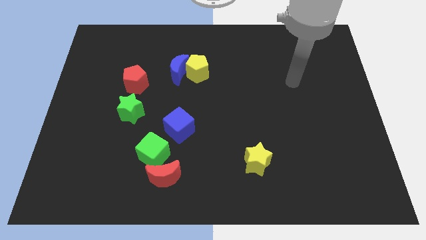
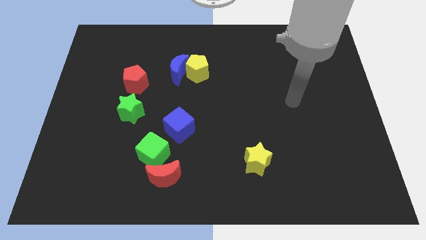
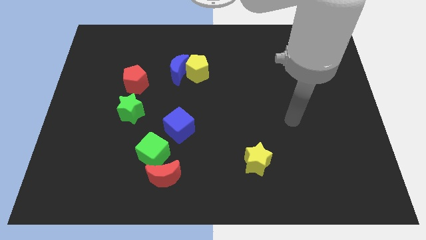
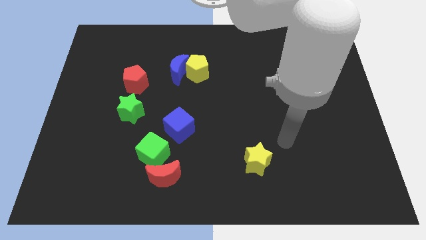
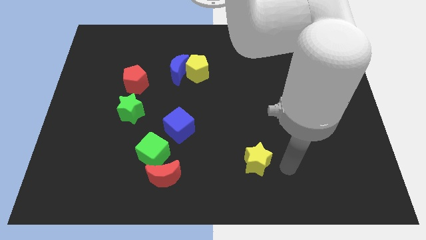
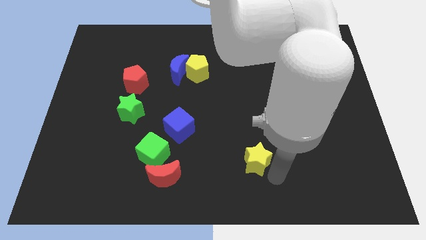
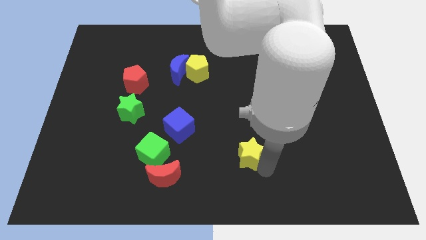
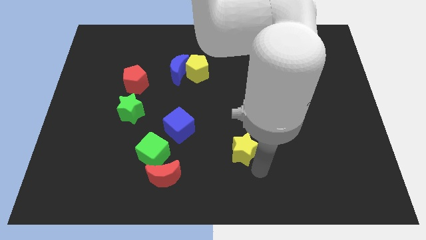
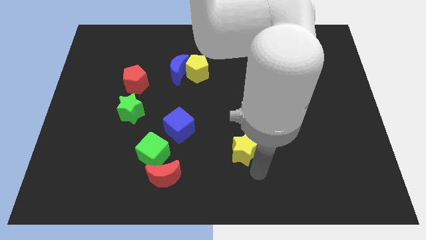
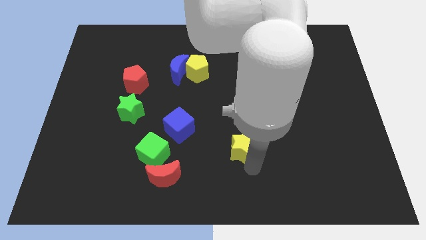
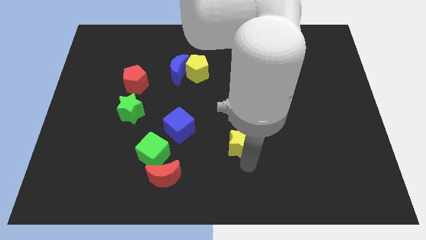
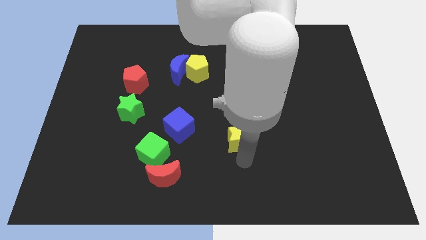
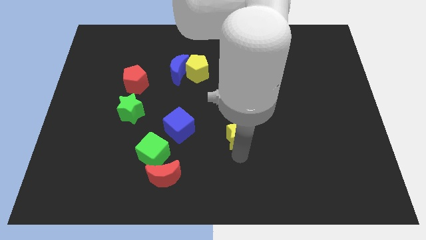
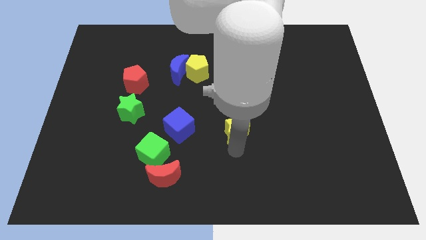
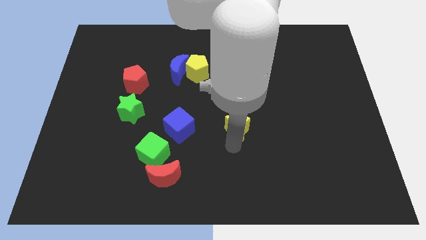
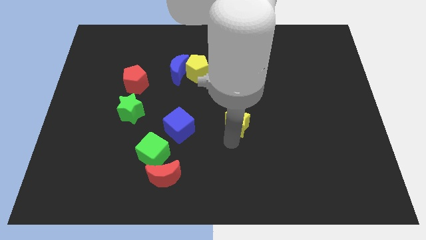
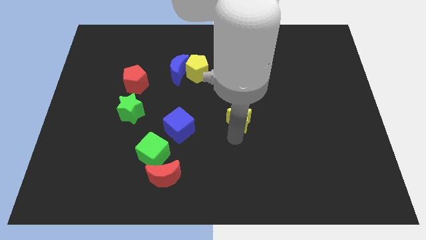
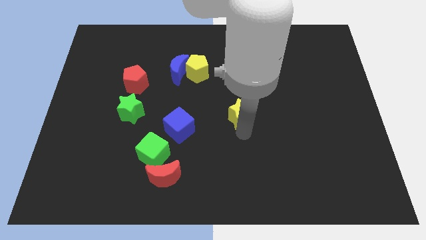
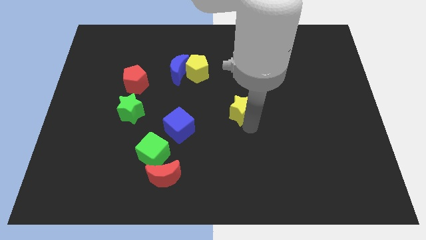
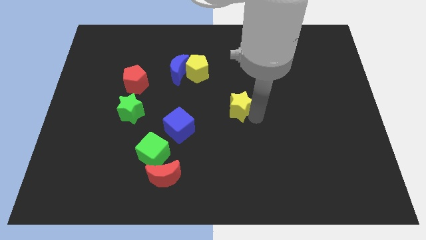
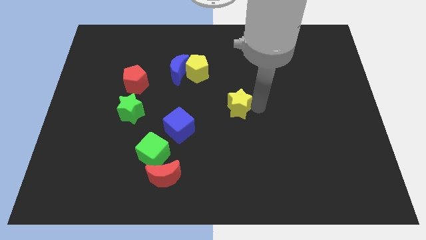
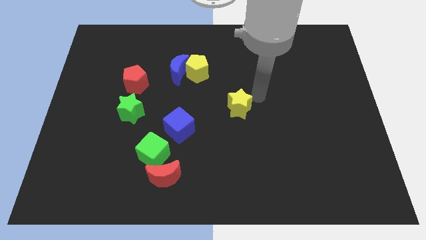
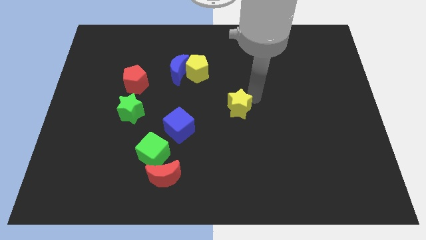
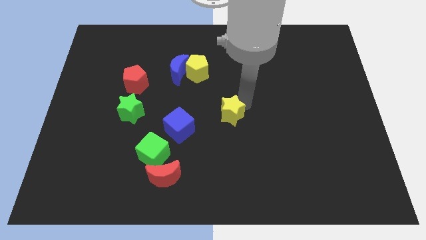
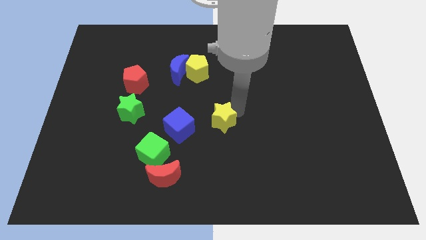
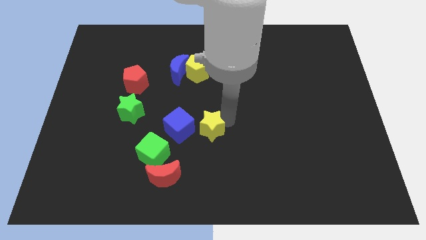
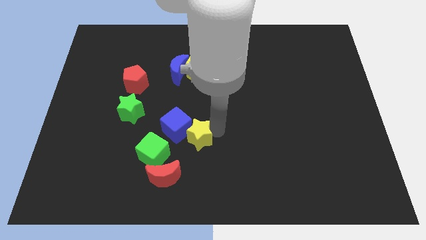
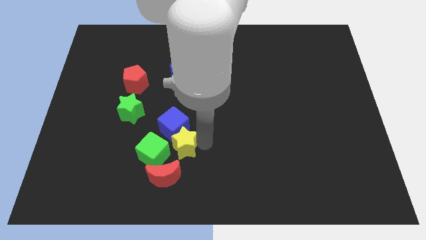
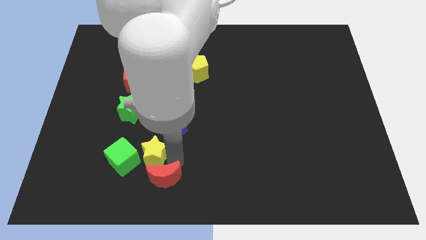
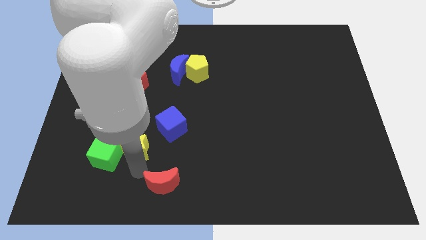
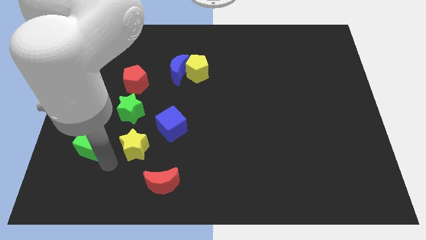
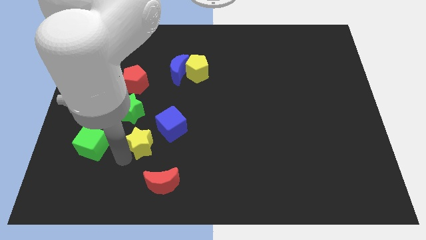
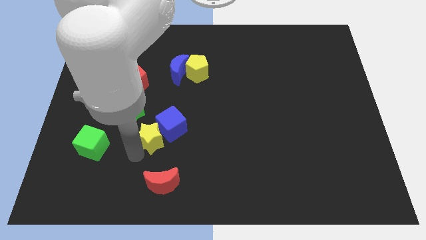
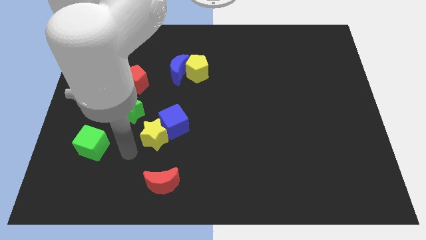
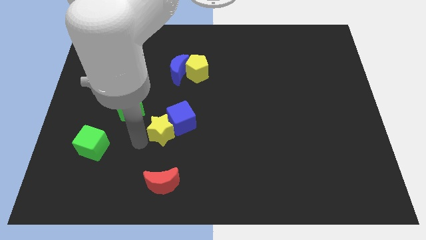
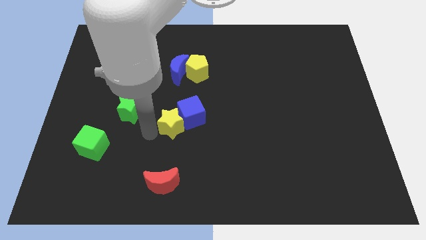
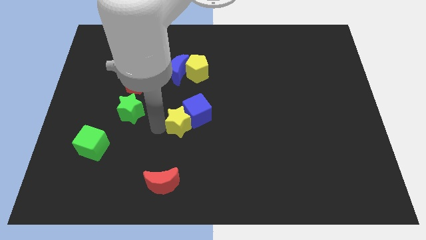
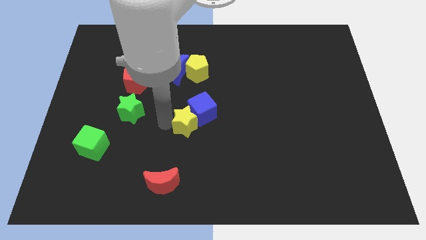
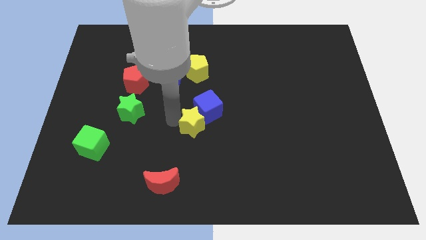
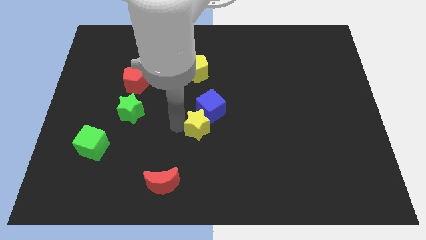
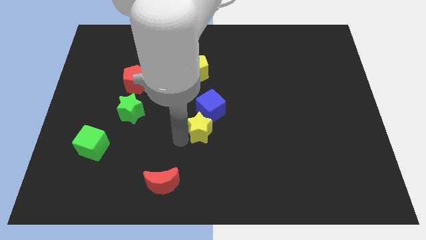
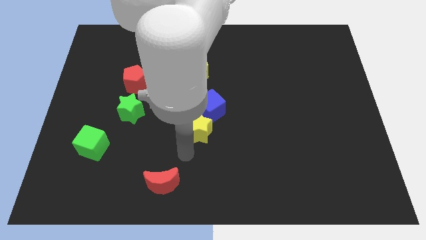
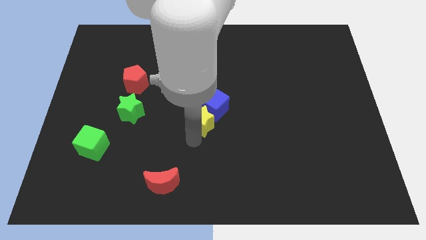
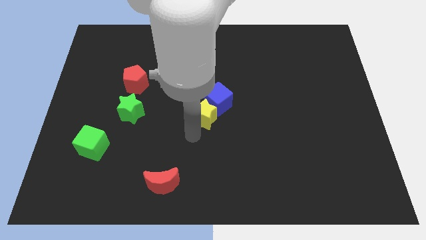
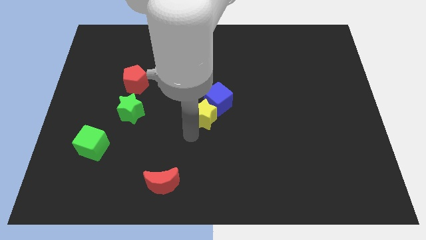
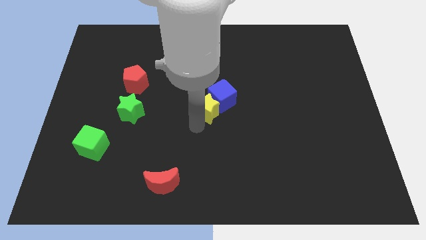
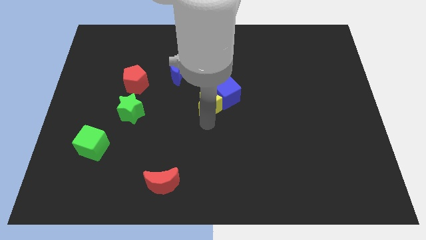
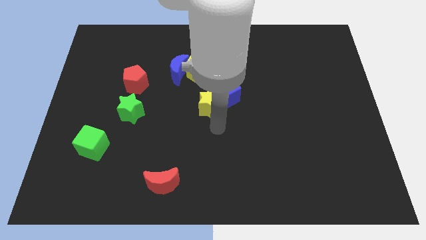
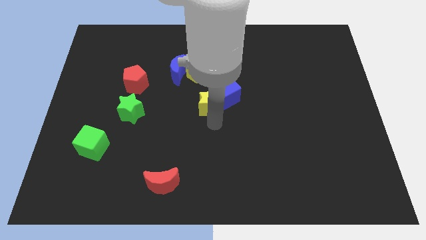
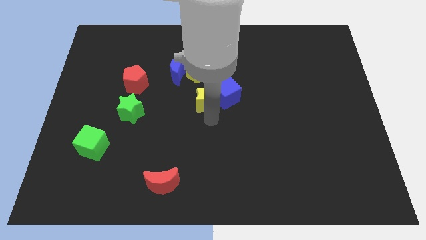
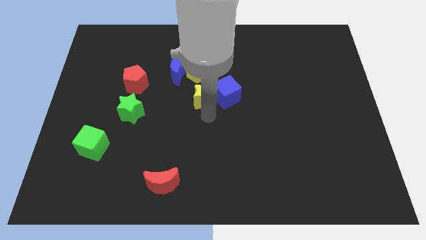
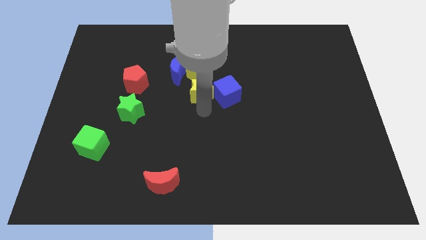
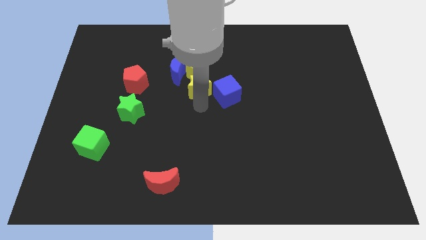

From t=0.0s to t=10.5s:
put the yellow star to the yellow pentagon

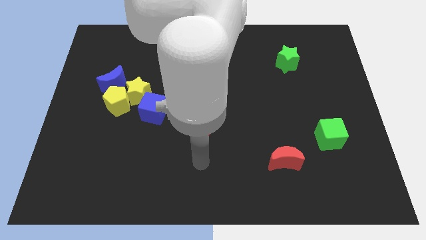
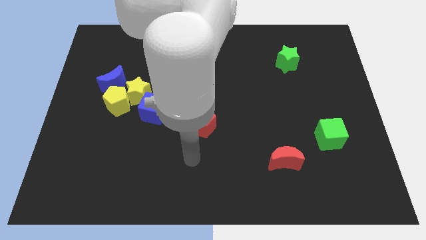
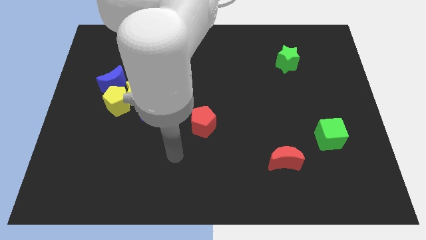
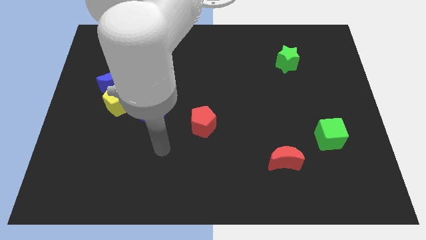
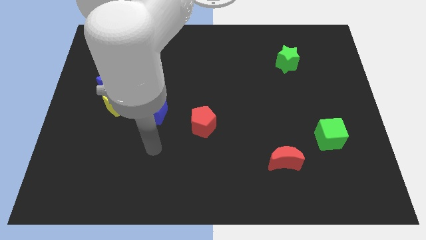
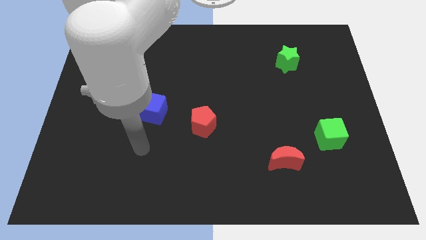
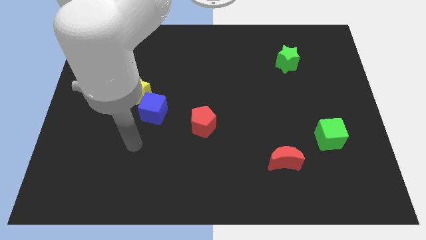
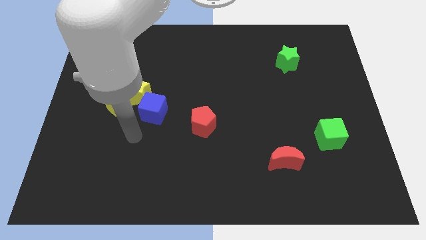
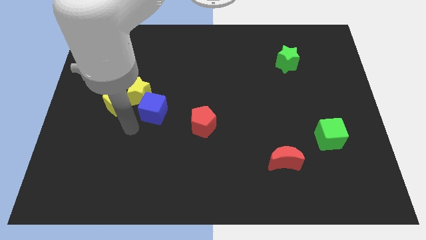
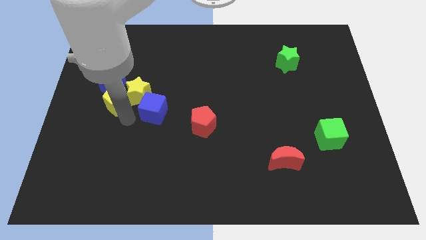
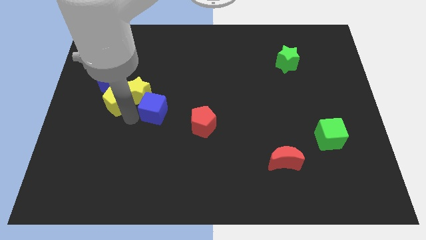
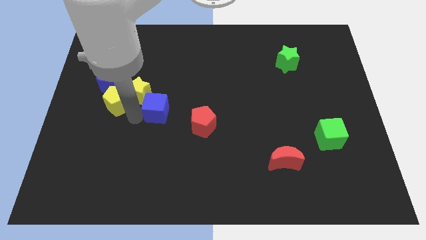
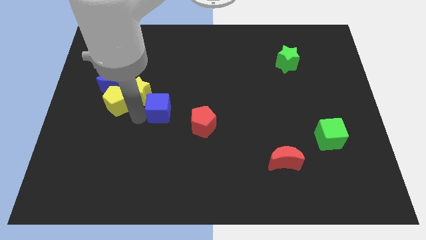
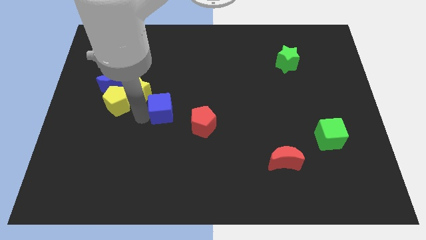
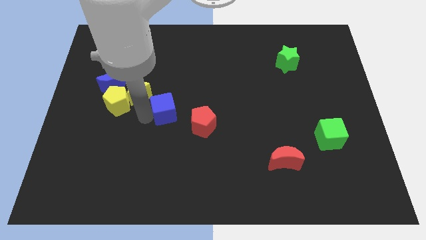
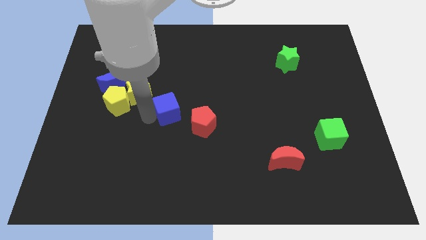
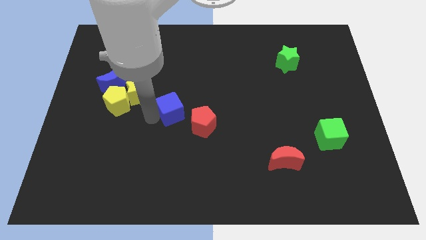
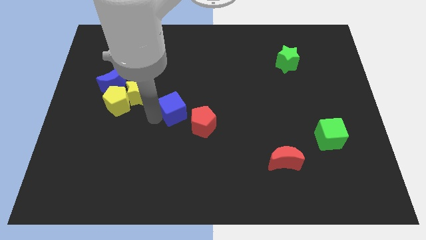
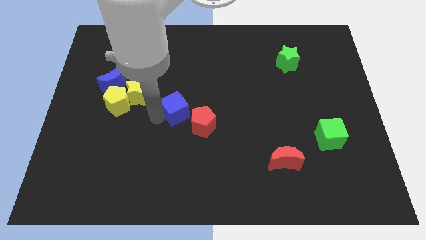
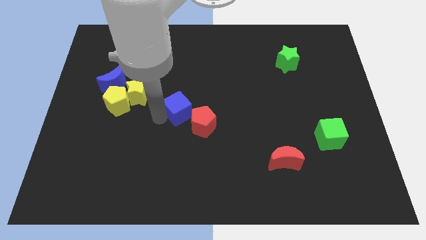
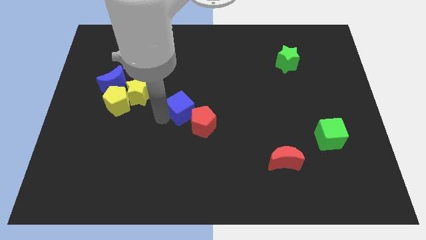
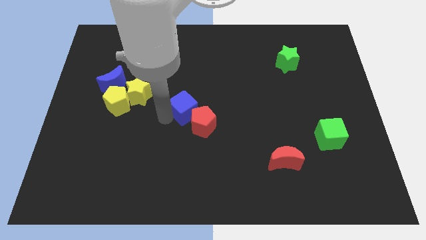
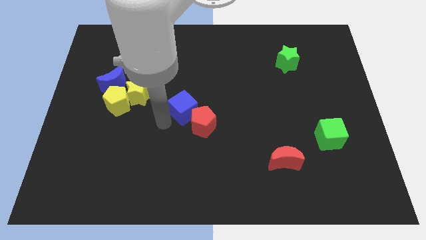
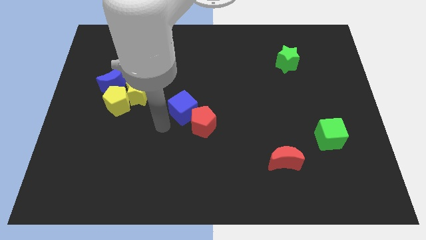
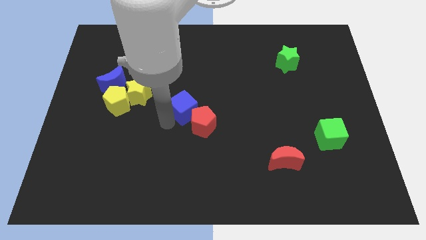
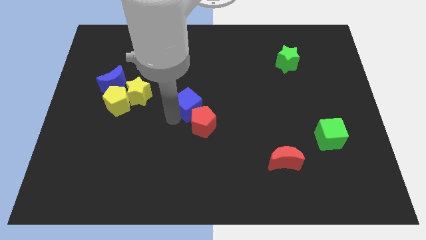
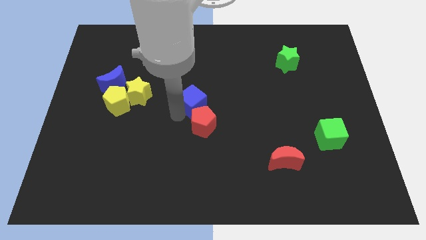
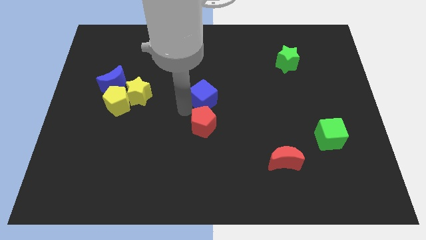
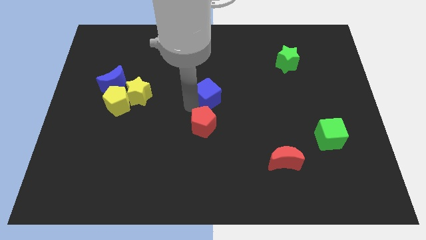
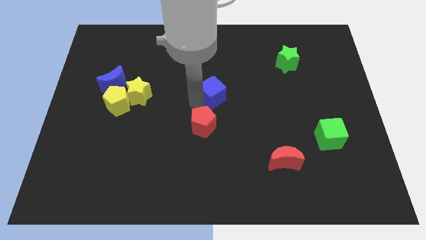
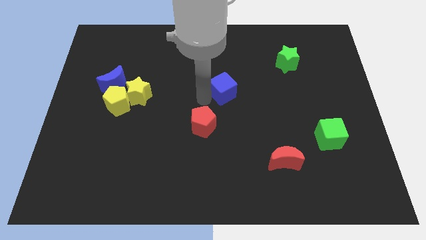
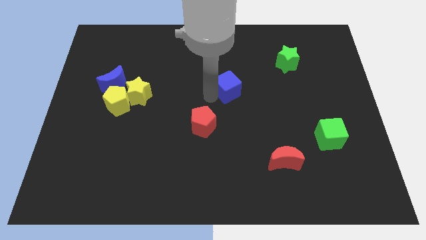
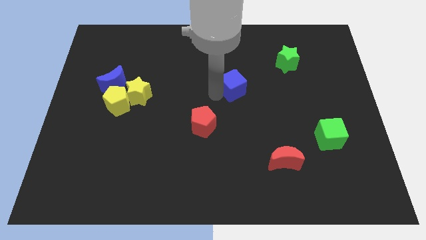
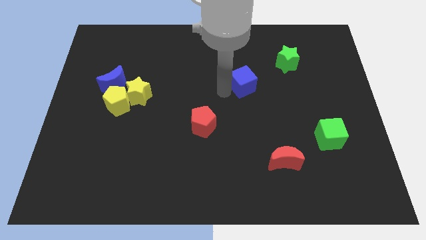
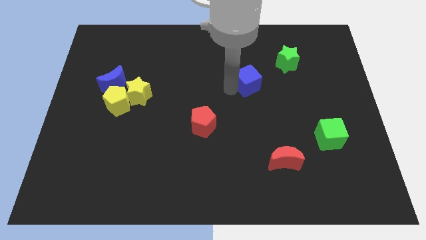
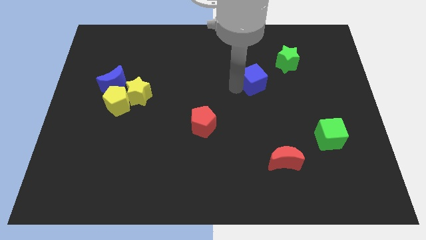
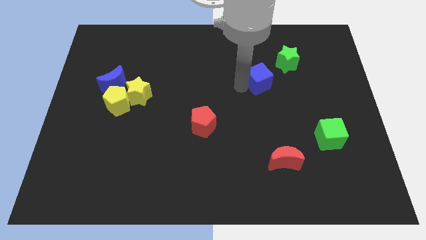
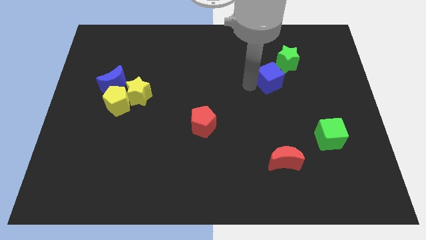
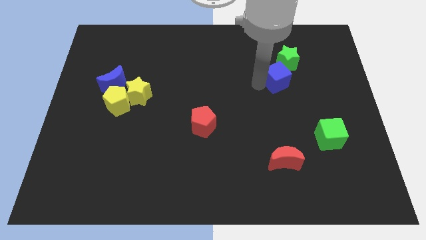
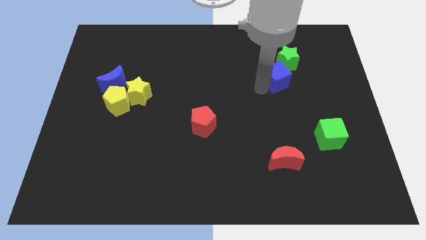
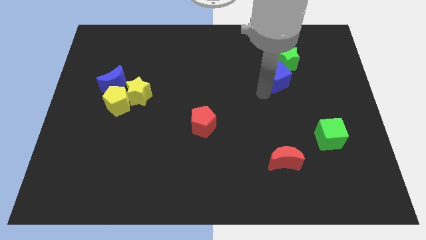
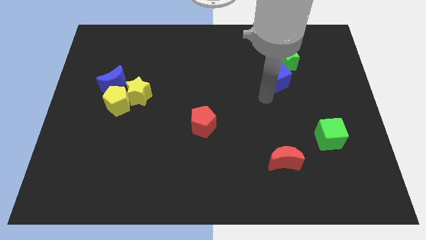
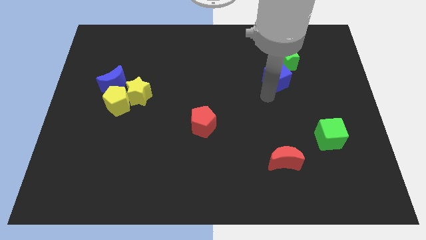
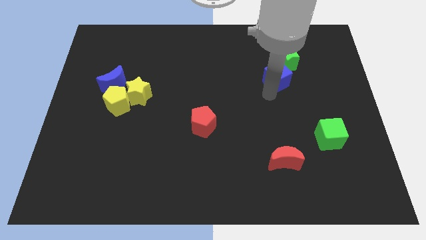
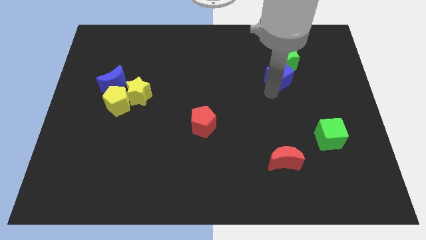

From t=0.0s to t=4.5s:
put the blue cube to the green star
